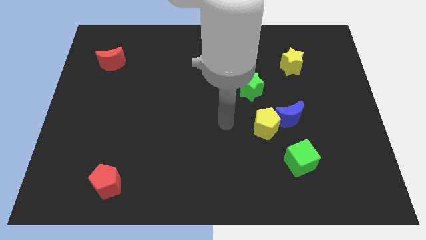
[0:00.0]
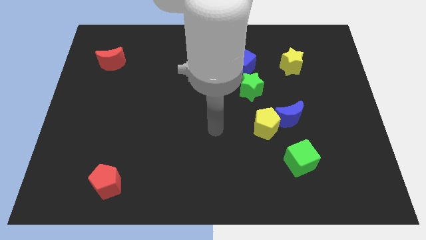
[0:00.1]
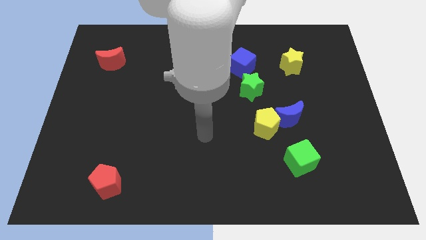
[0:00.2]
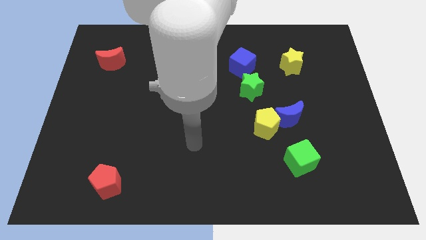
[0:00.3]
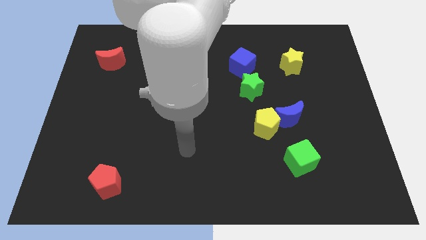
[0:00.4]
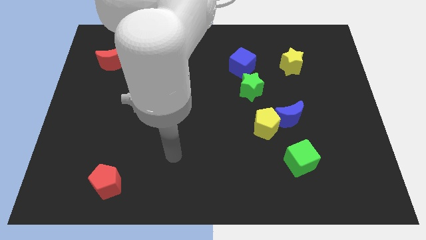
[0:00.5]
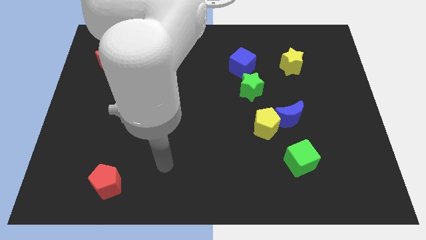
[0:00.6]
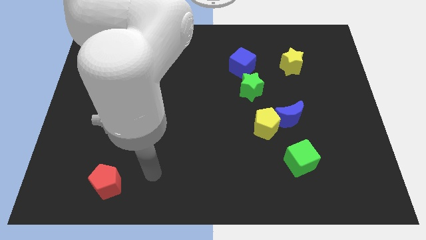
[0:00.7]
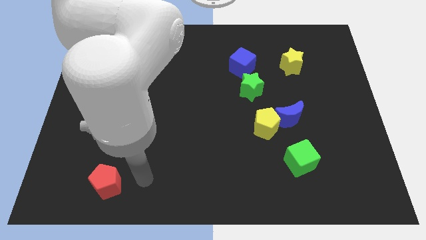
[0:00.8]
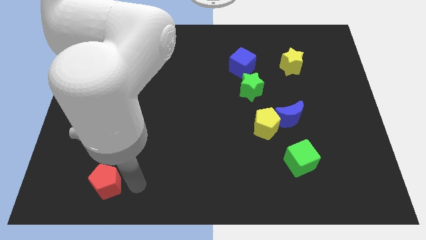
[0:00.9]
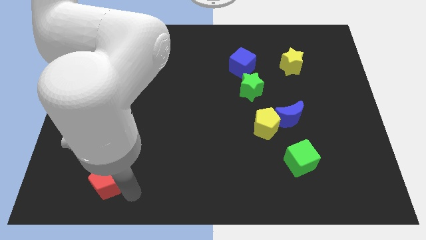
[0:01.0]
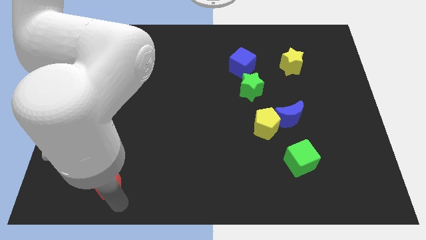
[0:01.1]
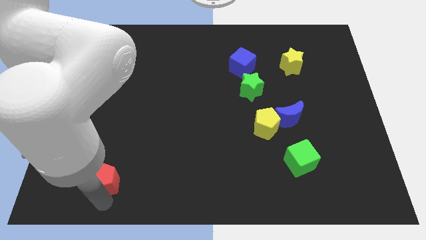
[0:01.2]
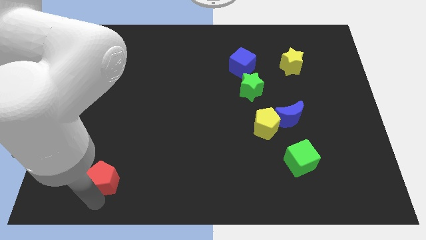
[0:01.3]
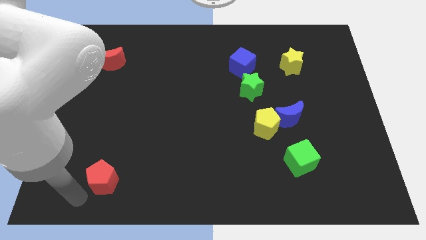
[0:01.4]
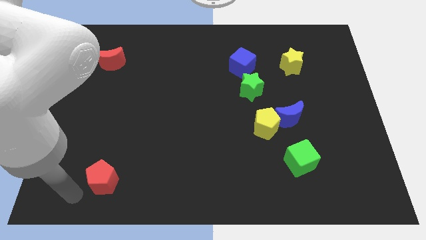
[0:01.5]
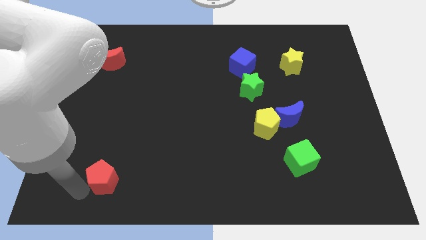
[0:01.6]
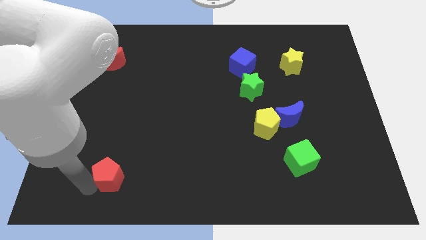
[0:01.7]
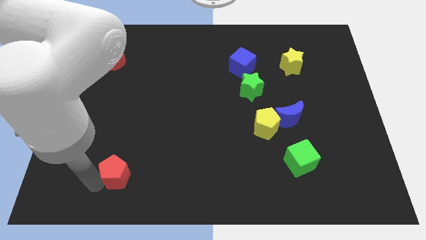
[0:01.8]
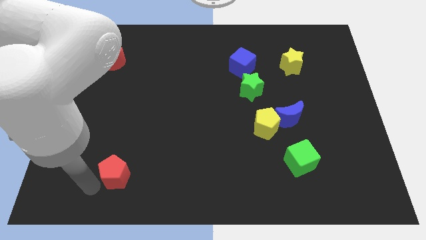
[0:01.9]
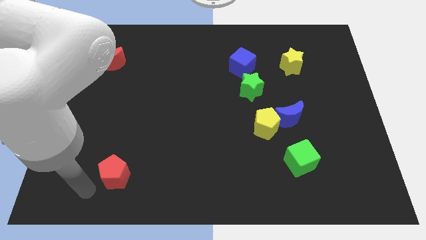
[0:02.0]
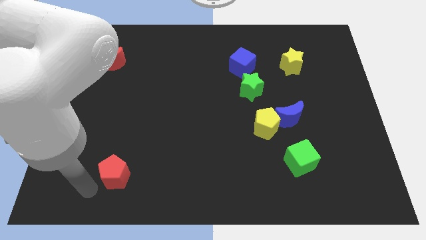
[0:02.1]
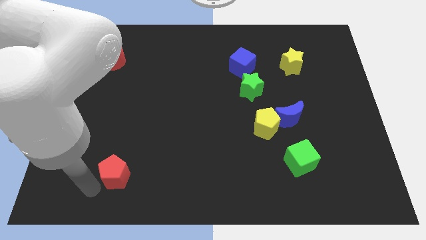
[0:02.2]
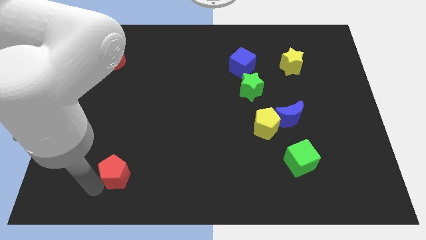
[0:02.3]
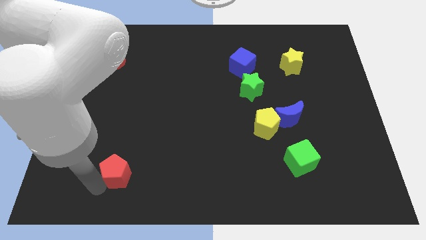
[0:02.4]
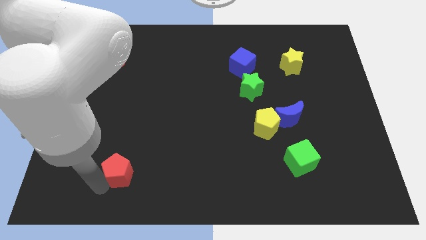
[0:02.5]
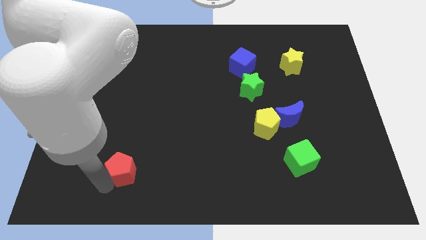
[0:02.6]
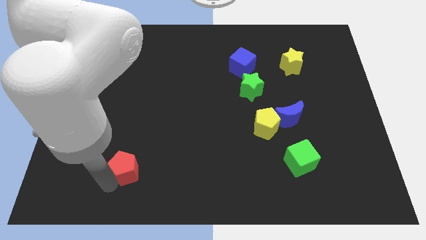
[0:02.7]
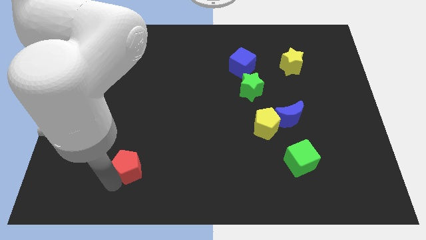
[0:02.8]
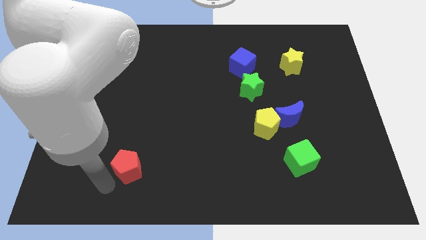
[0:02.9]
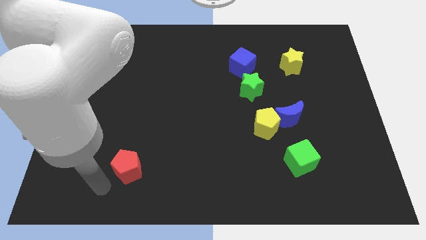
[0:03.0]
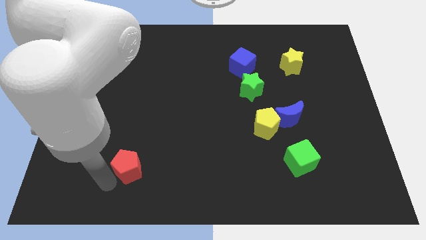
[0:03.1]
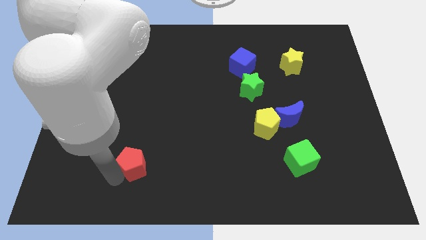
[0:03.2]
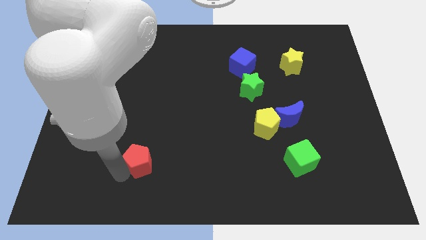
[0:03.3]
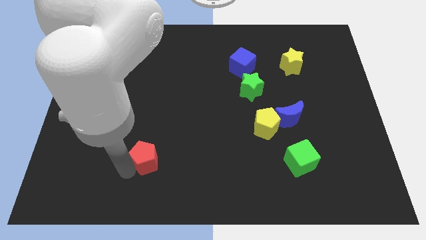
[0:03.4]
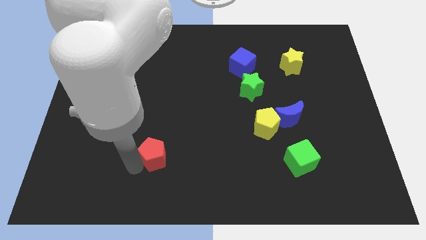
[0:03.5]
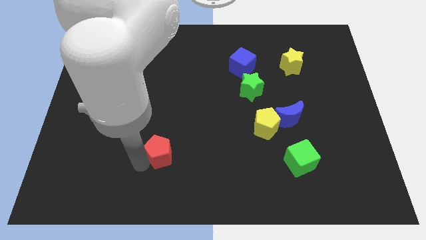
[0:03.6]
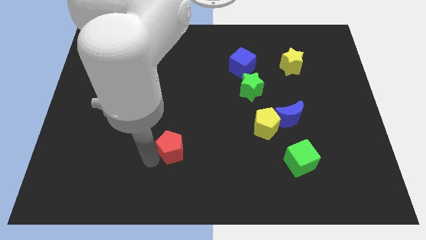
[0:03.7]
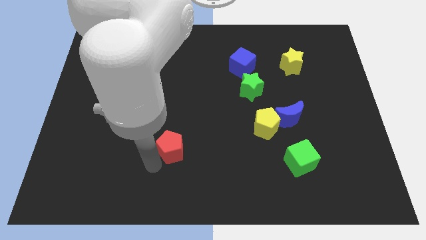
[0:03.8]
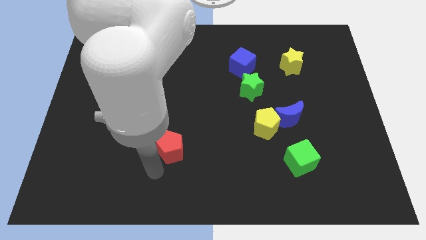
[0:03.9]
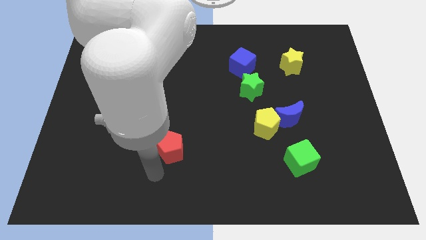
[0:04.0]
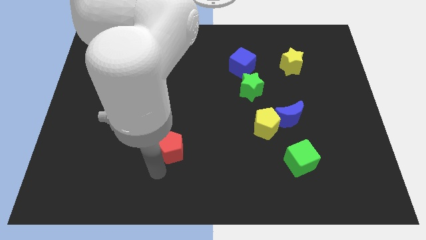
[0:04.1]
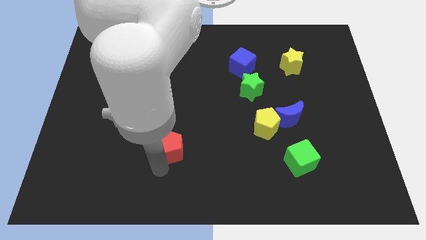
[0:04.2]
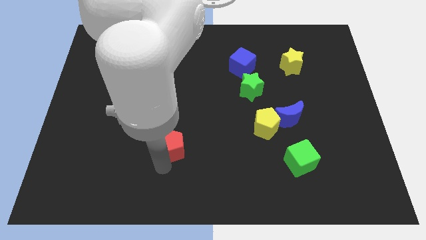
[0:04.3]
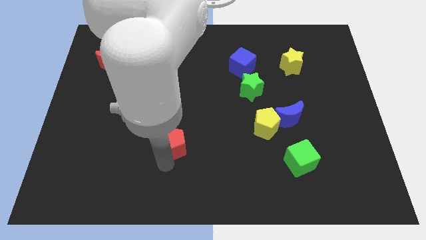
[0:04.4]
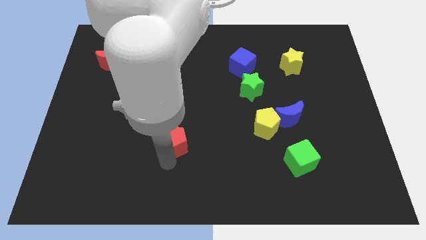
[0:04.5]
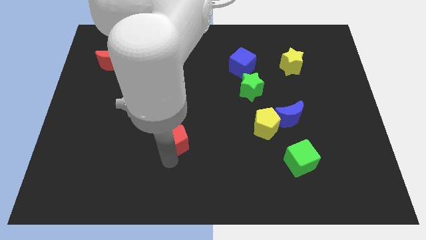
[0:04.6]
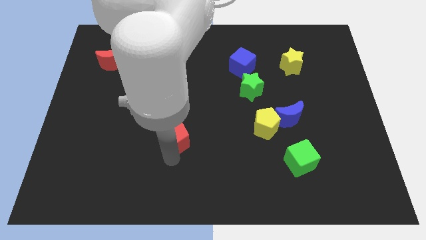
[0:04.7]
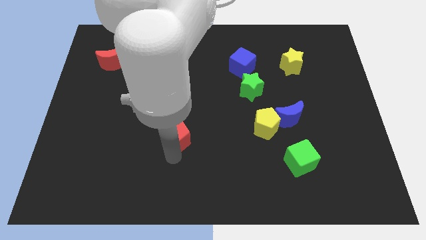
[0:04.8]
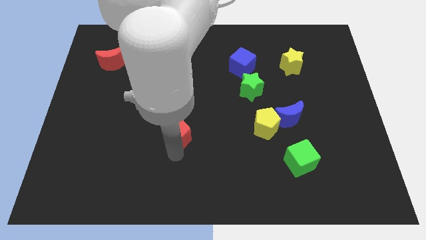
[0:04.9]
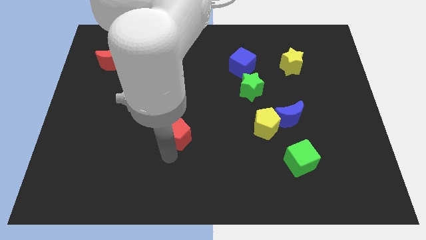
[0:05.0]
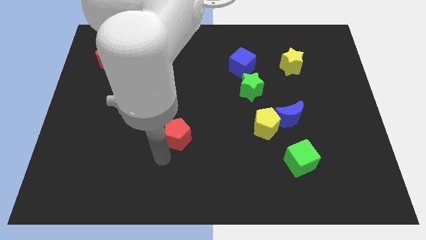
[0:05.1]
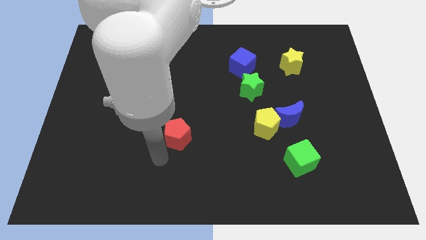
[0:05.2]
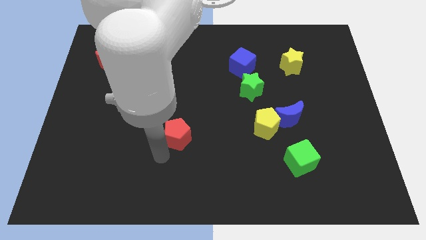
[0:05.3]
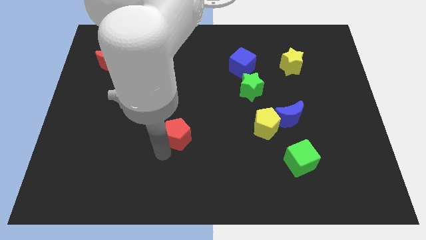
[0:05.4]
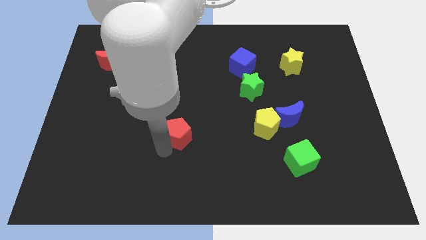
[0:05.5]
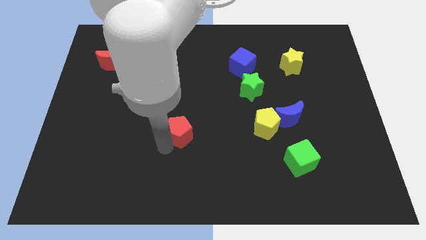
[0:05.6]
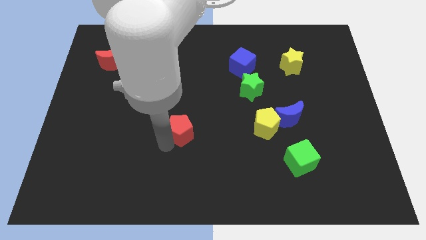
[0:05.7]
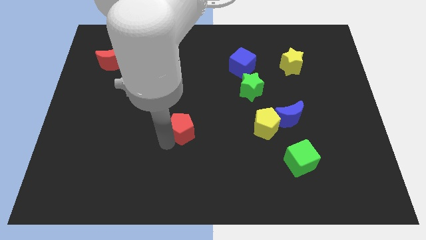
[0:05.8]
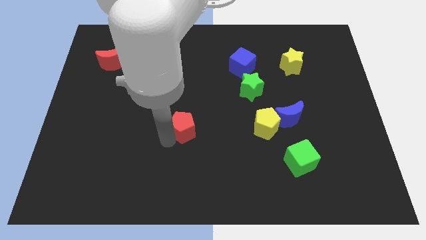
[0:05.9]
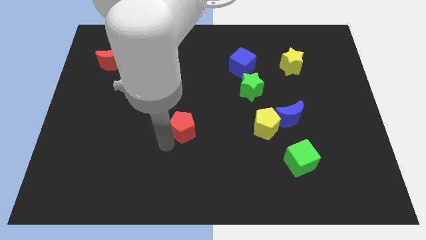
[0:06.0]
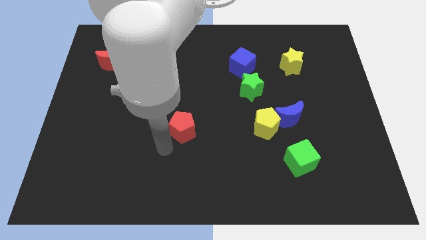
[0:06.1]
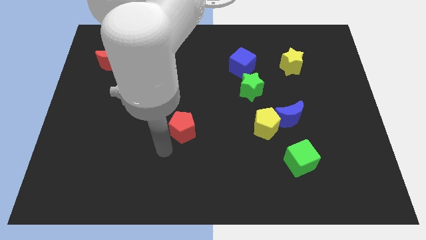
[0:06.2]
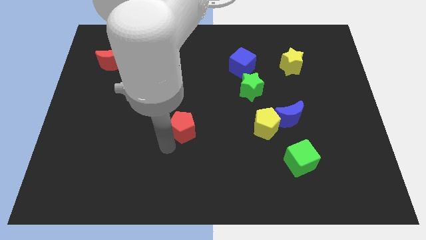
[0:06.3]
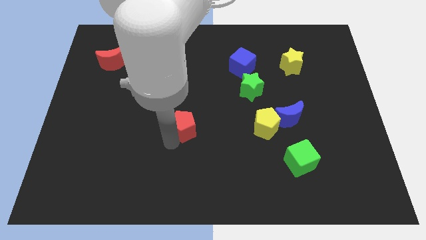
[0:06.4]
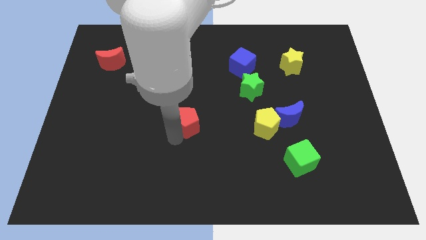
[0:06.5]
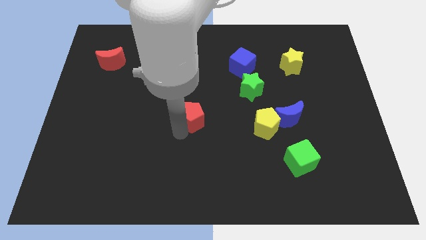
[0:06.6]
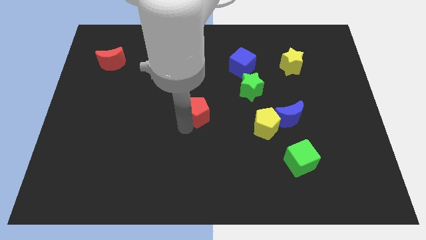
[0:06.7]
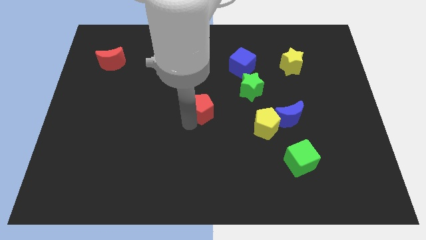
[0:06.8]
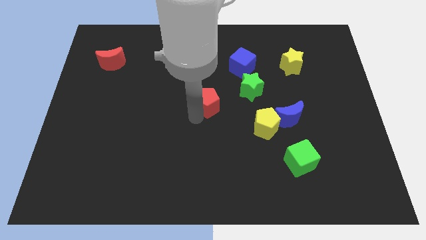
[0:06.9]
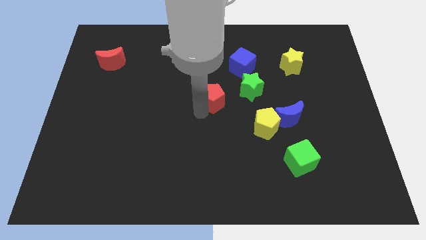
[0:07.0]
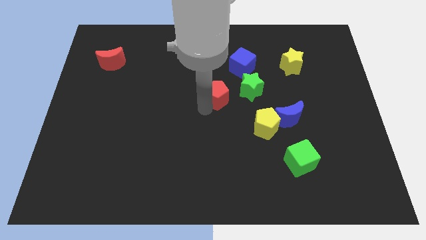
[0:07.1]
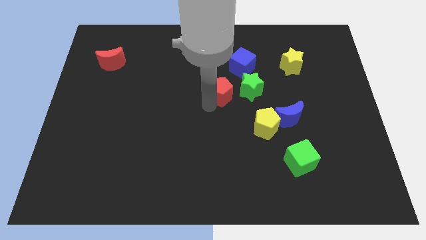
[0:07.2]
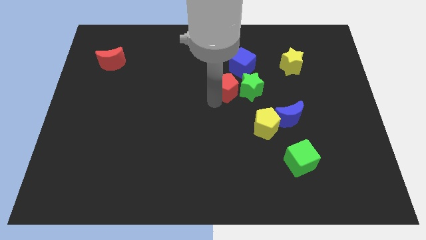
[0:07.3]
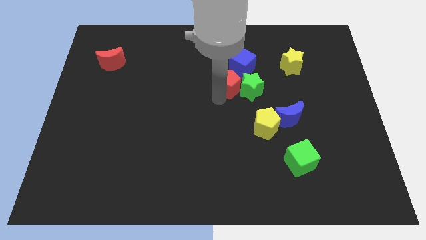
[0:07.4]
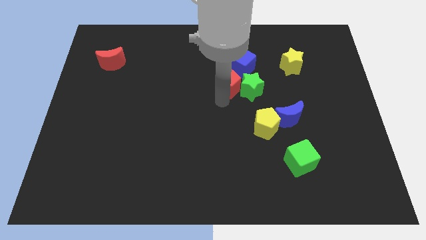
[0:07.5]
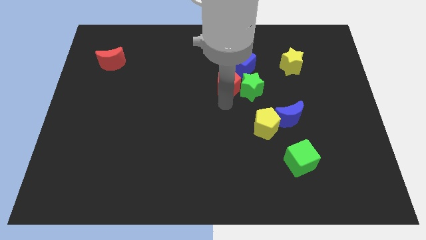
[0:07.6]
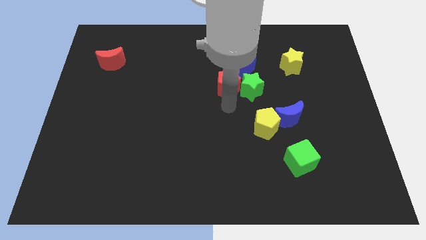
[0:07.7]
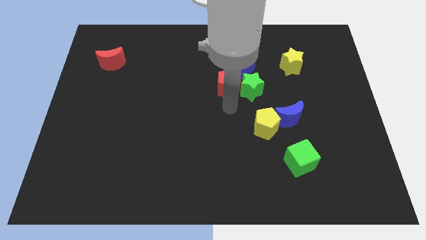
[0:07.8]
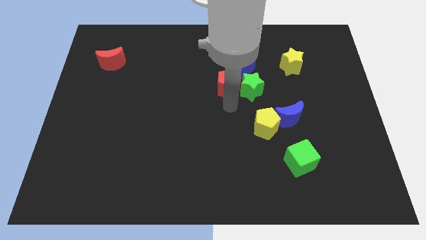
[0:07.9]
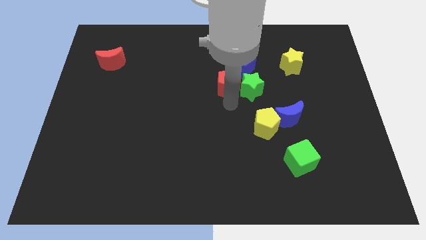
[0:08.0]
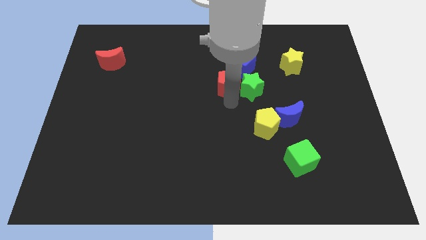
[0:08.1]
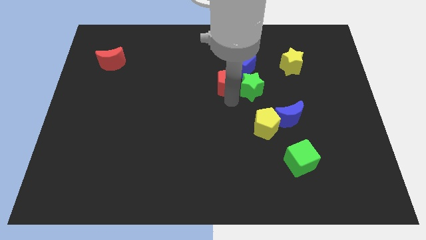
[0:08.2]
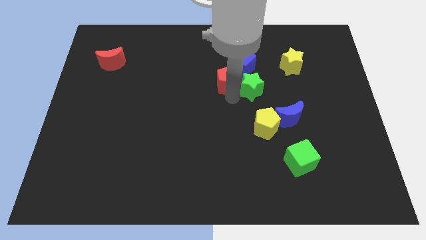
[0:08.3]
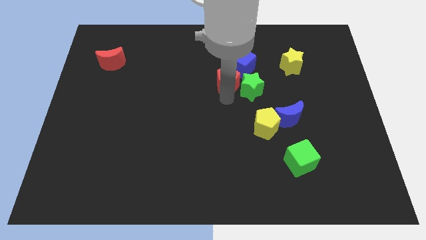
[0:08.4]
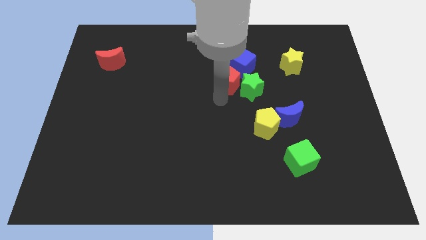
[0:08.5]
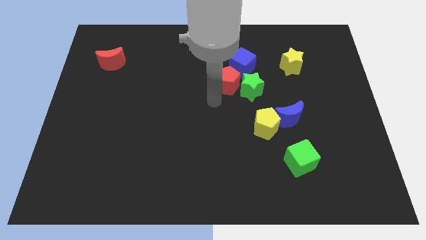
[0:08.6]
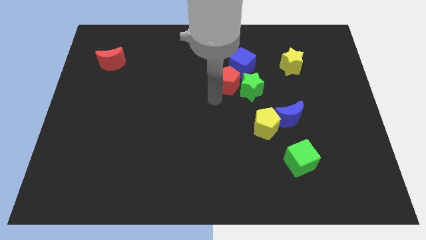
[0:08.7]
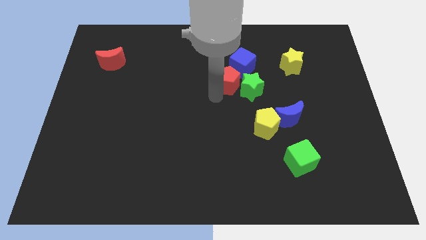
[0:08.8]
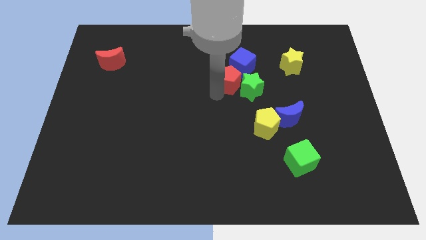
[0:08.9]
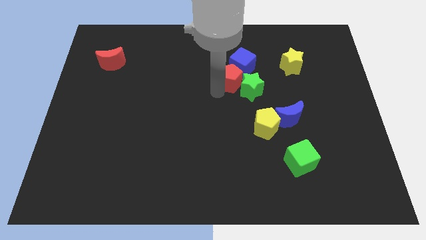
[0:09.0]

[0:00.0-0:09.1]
push the red pentagon next to the blue cube
